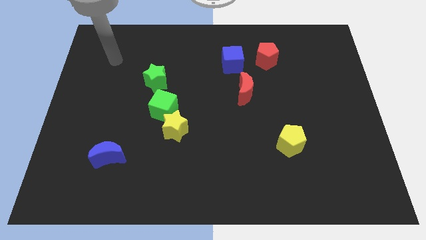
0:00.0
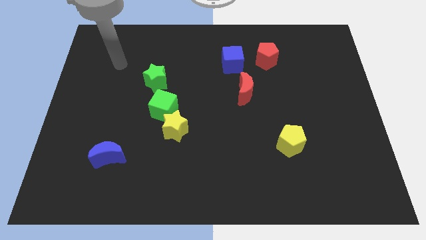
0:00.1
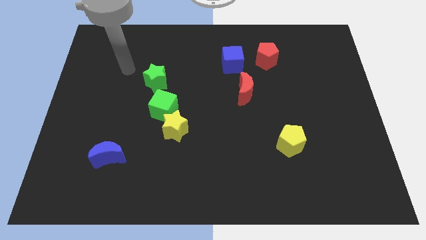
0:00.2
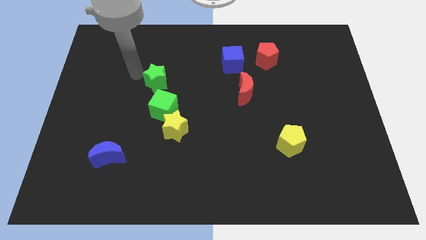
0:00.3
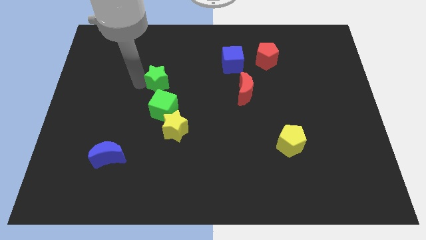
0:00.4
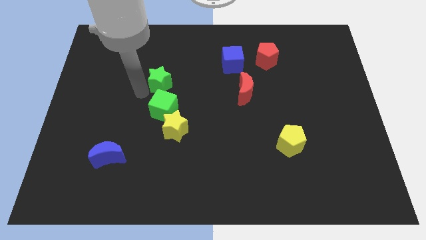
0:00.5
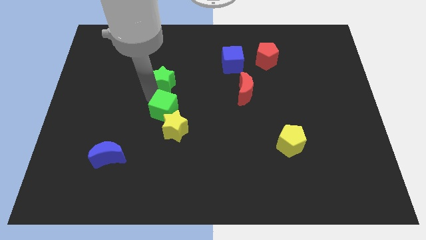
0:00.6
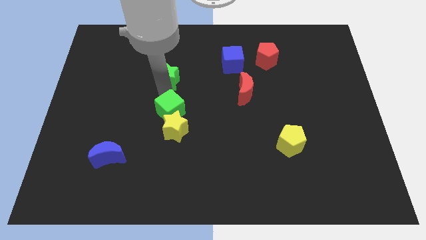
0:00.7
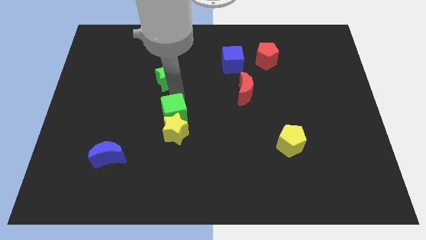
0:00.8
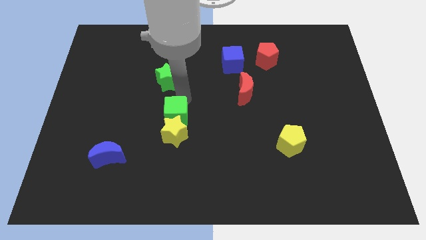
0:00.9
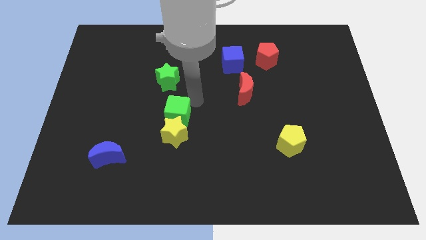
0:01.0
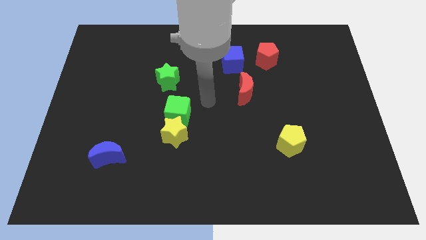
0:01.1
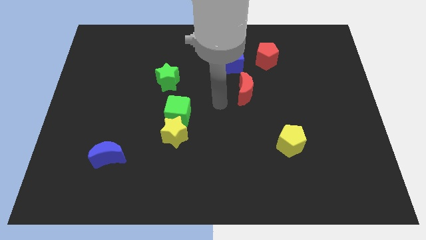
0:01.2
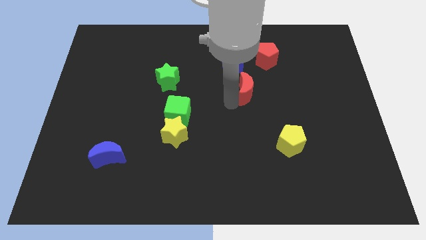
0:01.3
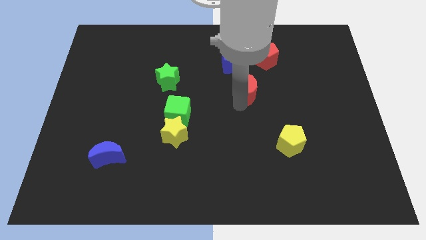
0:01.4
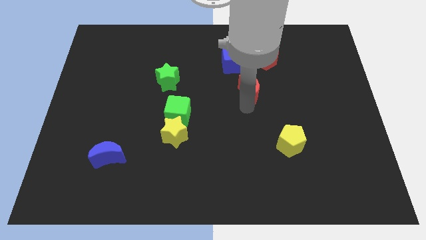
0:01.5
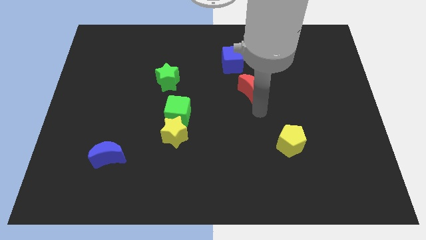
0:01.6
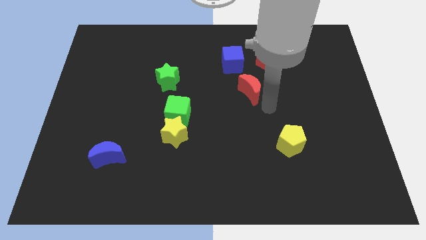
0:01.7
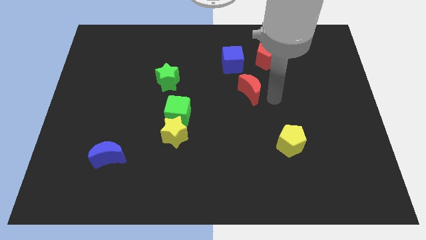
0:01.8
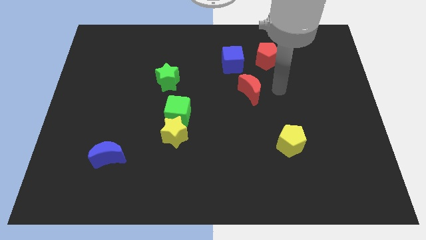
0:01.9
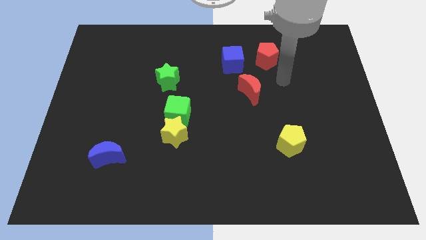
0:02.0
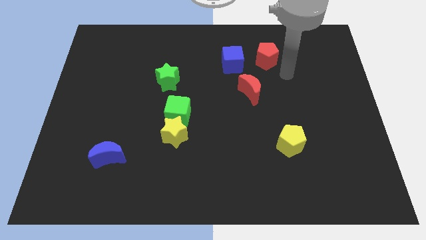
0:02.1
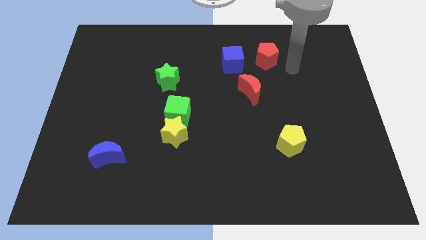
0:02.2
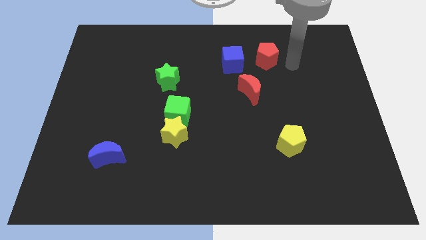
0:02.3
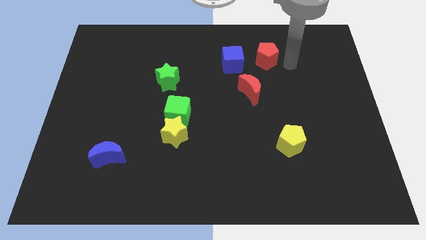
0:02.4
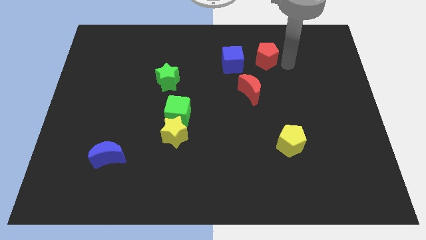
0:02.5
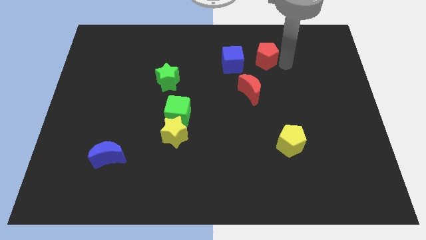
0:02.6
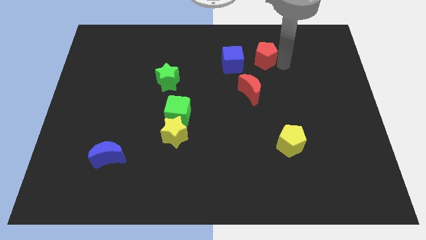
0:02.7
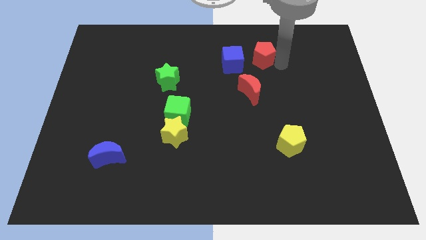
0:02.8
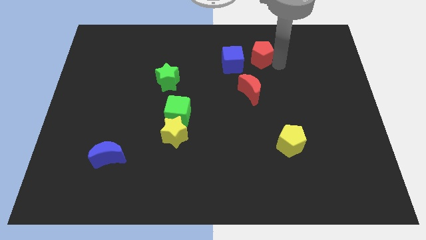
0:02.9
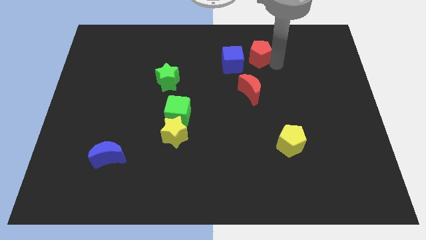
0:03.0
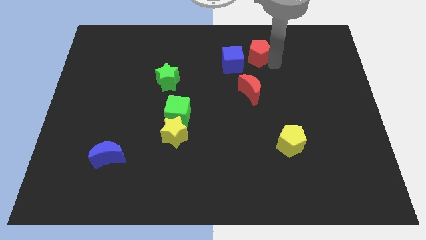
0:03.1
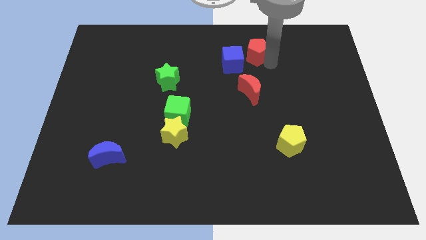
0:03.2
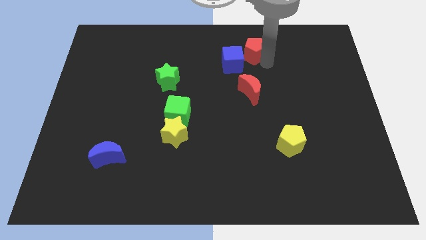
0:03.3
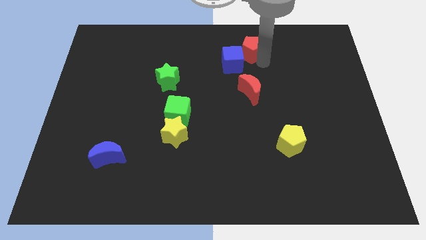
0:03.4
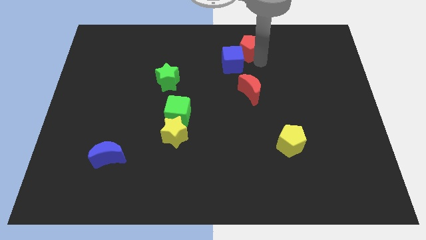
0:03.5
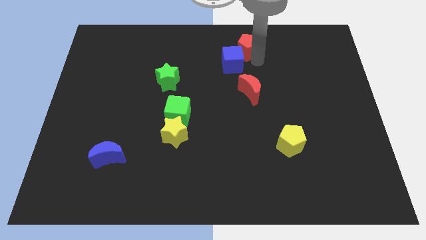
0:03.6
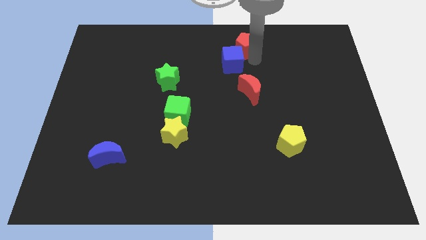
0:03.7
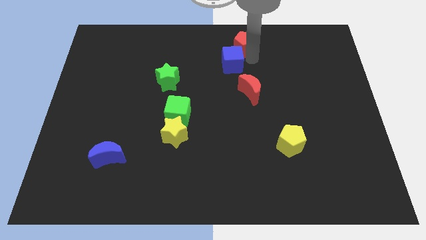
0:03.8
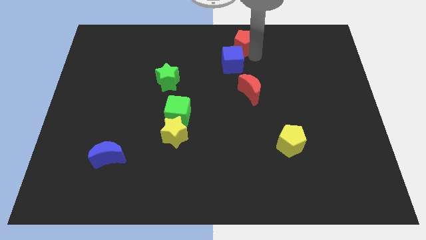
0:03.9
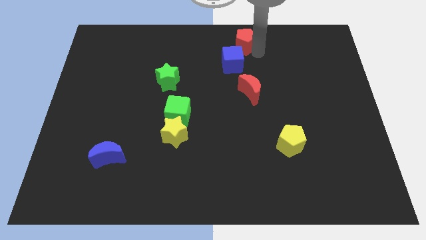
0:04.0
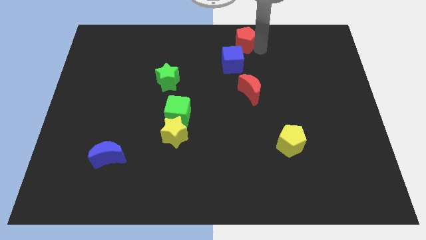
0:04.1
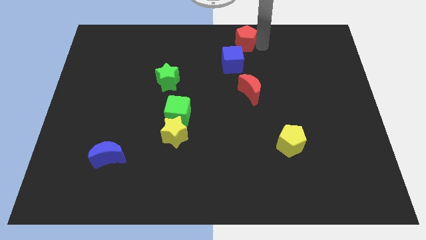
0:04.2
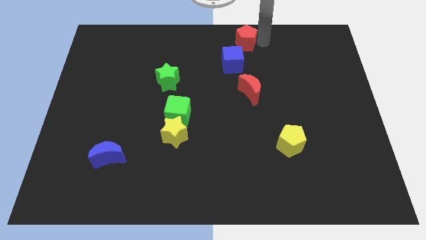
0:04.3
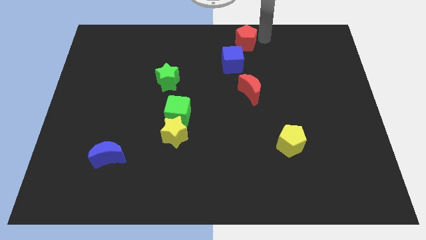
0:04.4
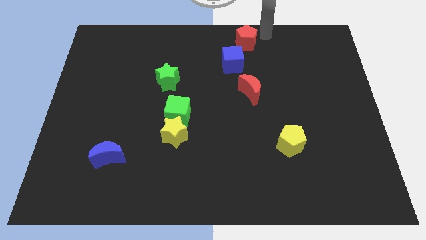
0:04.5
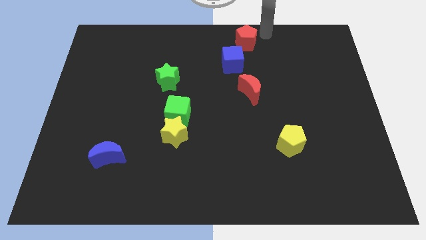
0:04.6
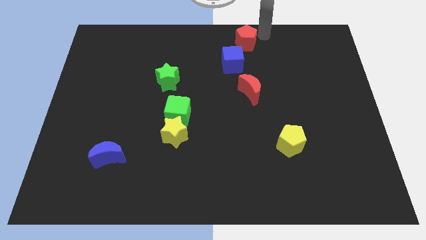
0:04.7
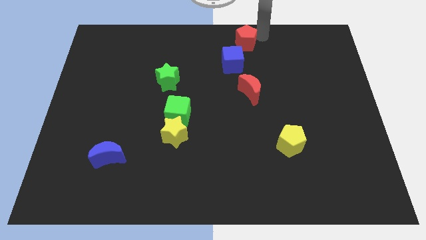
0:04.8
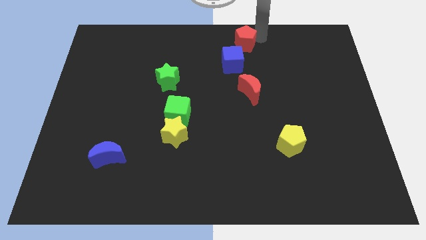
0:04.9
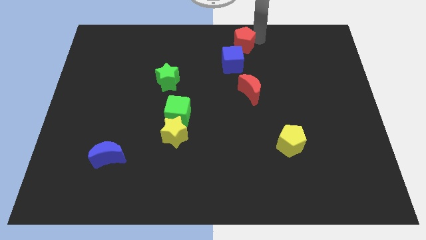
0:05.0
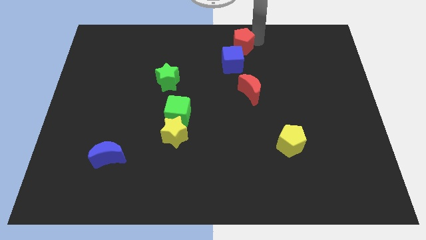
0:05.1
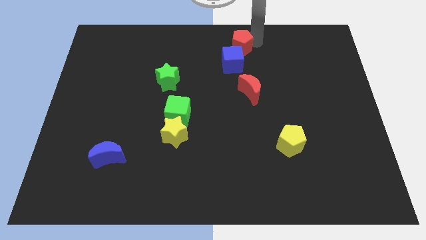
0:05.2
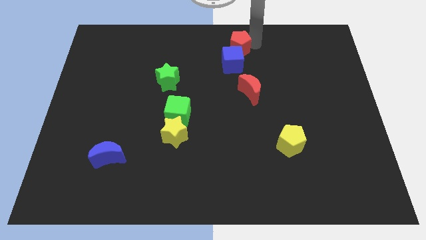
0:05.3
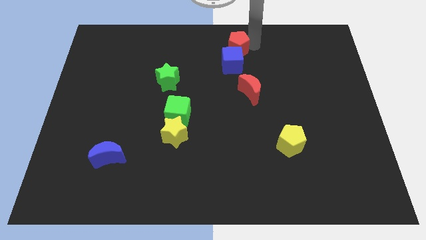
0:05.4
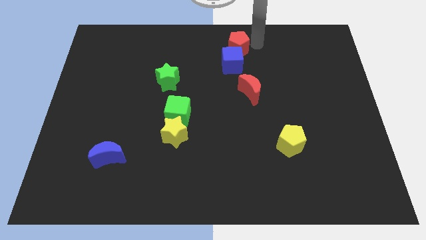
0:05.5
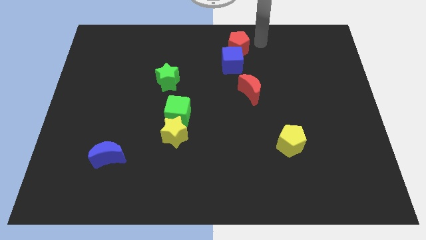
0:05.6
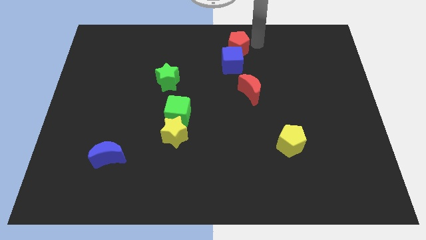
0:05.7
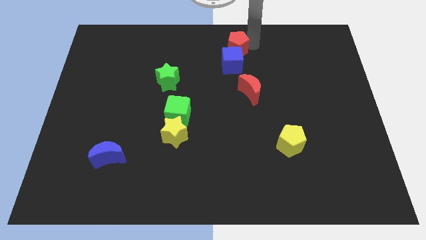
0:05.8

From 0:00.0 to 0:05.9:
push the red pentagon a little bit to the left

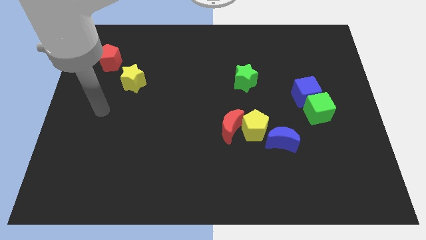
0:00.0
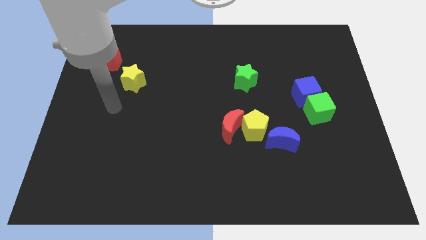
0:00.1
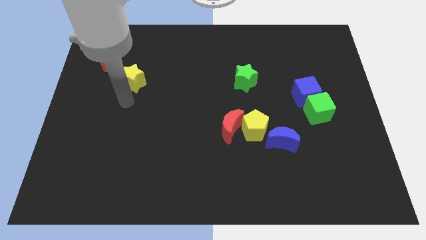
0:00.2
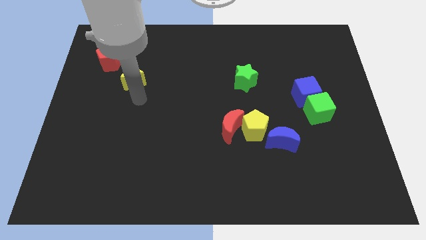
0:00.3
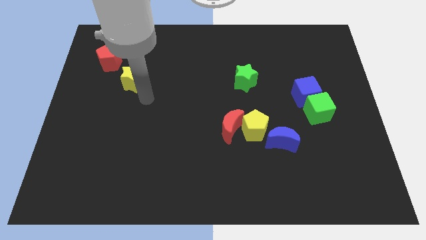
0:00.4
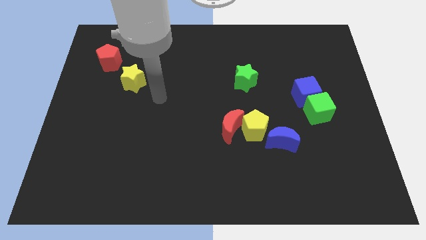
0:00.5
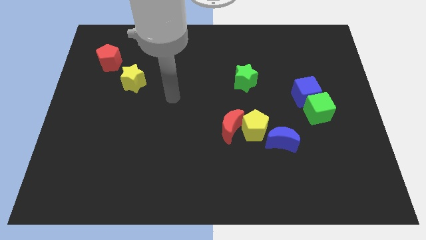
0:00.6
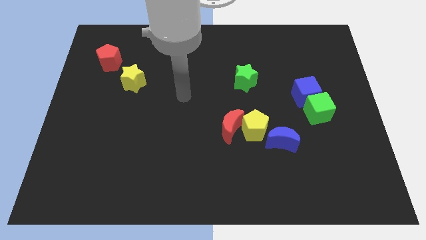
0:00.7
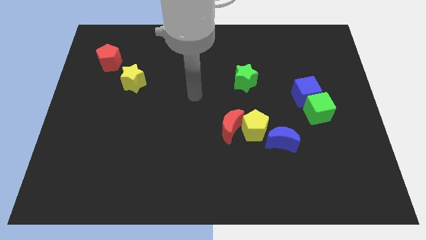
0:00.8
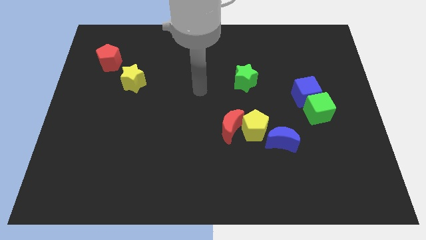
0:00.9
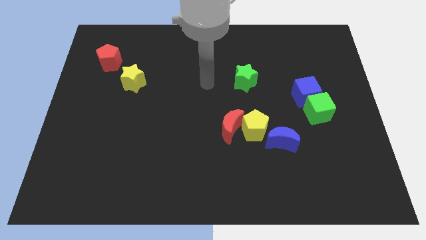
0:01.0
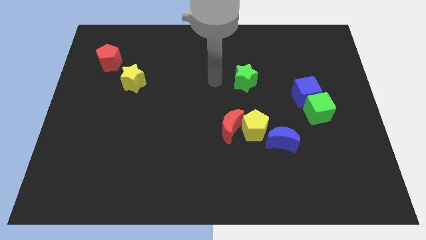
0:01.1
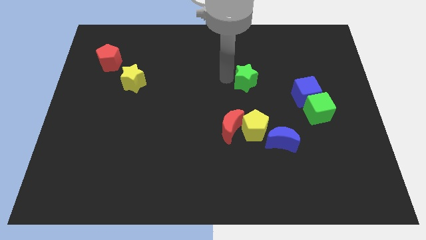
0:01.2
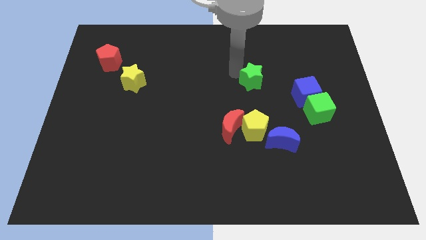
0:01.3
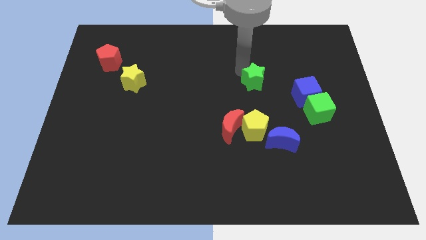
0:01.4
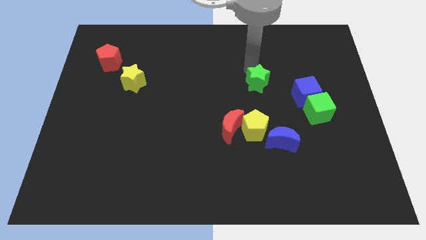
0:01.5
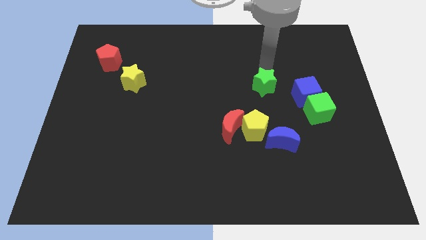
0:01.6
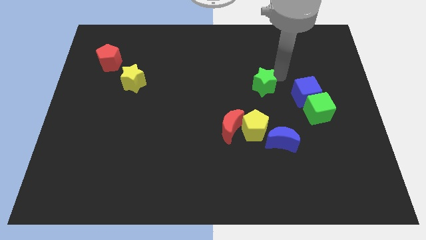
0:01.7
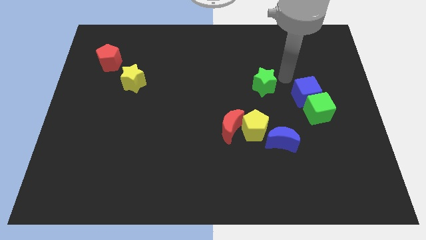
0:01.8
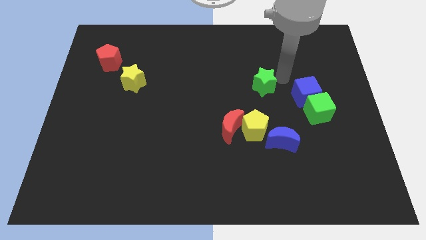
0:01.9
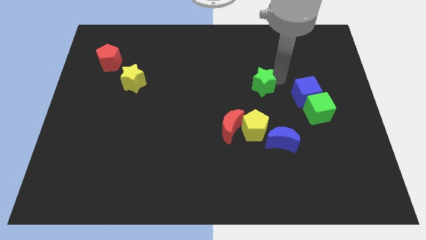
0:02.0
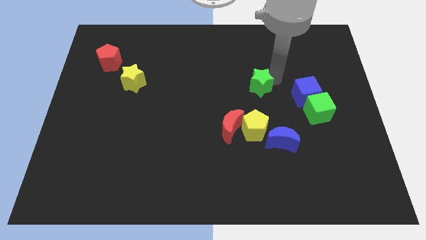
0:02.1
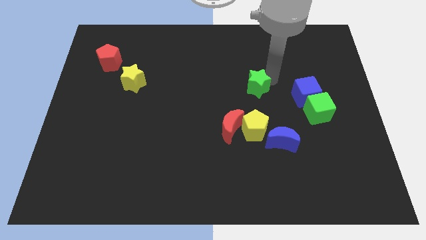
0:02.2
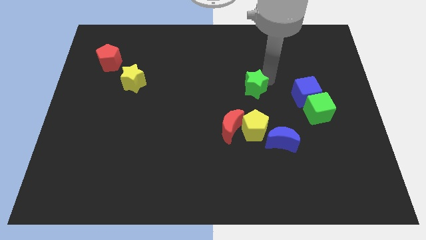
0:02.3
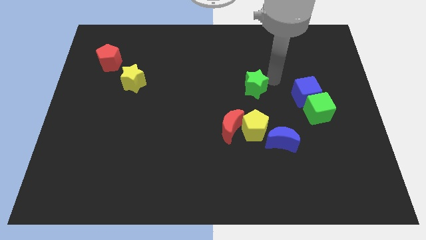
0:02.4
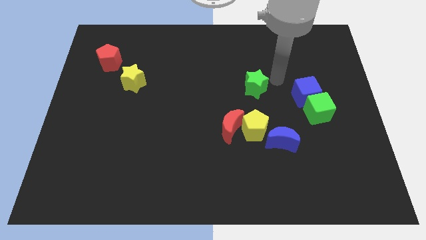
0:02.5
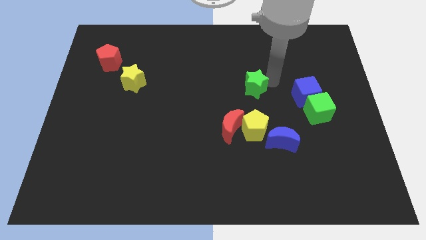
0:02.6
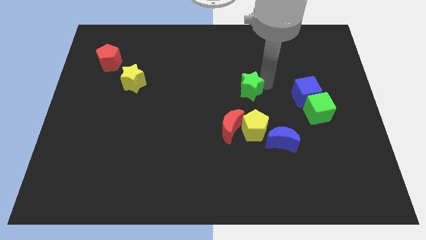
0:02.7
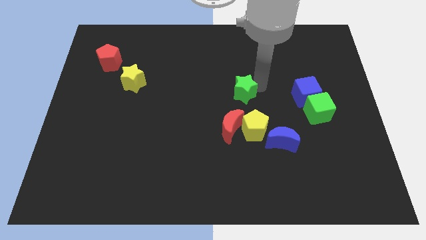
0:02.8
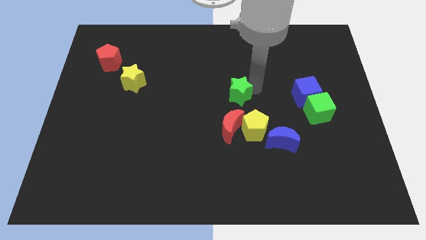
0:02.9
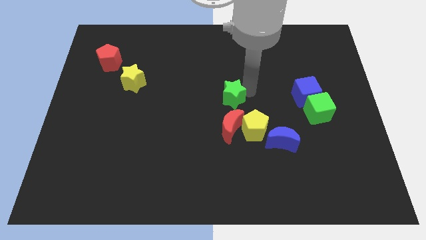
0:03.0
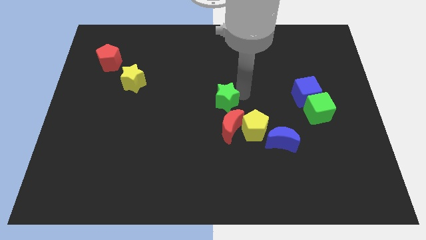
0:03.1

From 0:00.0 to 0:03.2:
slide the green star diagonally downwards and left slightly
